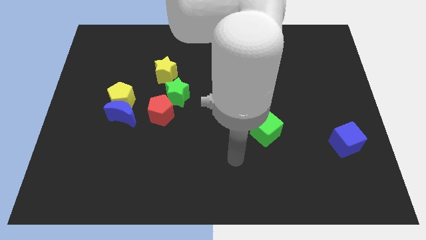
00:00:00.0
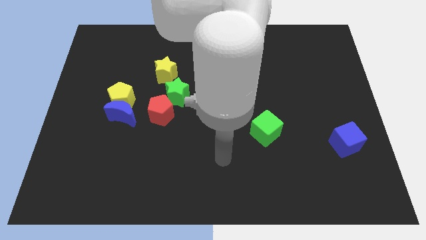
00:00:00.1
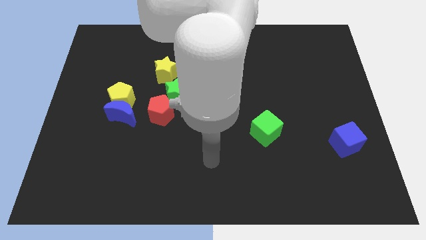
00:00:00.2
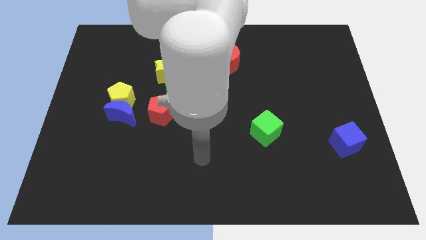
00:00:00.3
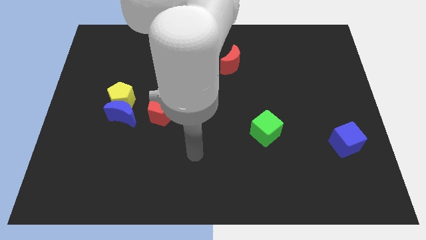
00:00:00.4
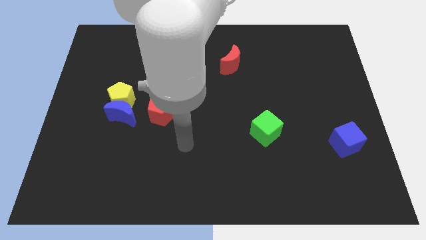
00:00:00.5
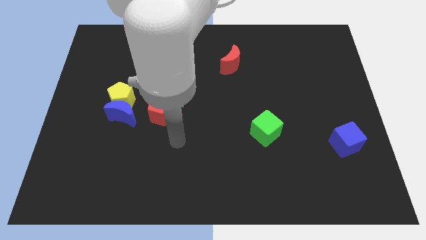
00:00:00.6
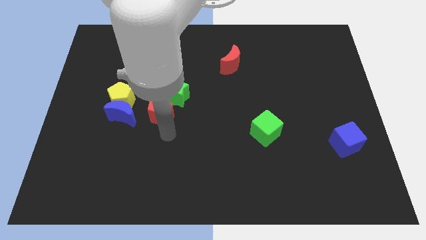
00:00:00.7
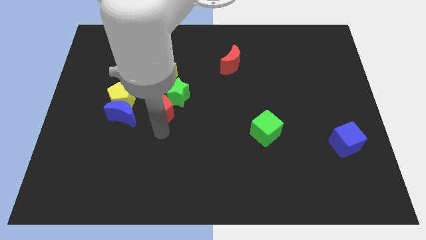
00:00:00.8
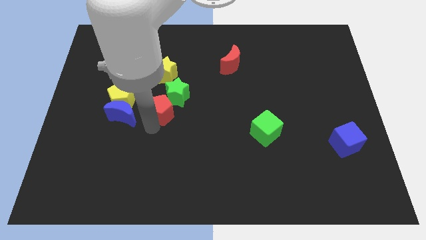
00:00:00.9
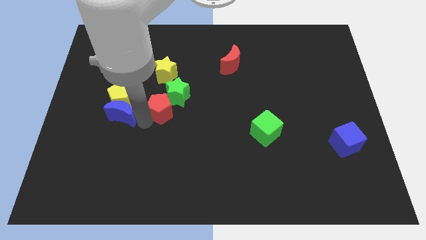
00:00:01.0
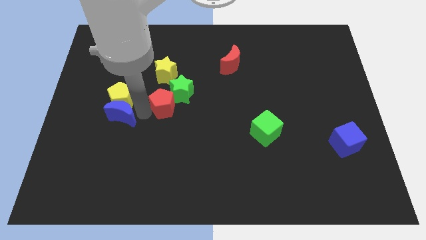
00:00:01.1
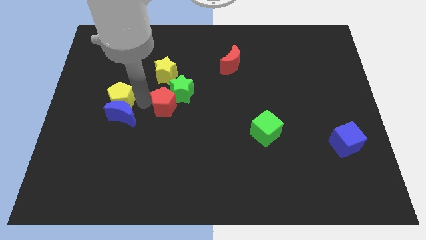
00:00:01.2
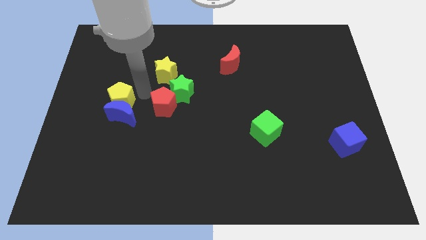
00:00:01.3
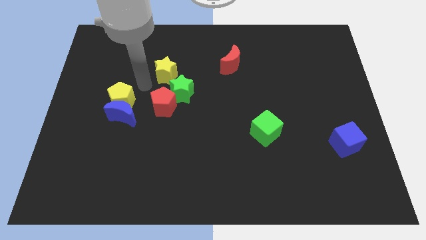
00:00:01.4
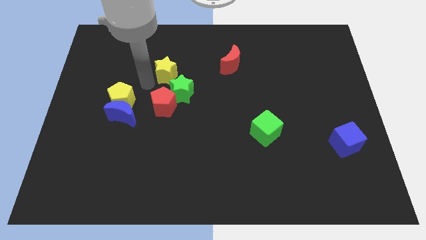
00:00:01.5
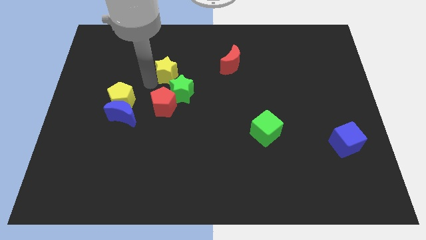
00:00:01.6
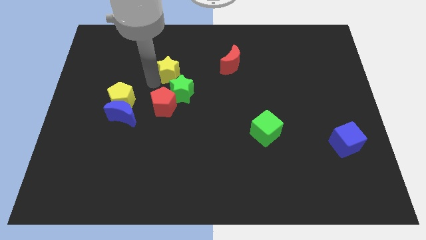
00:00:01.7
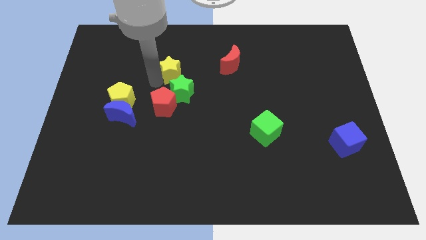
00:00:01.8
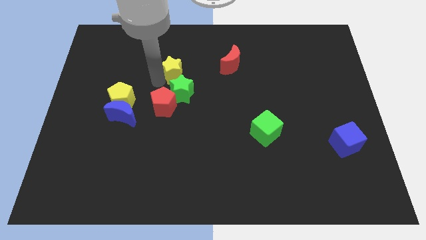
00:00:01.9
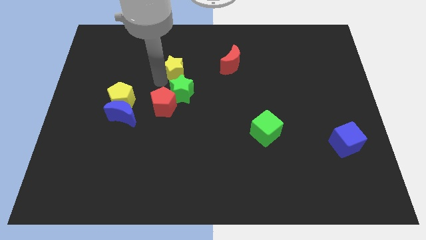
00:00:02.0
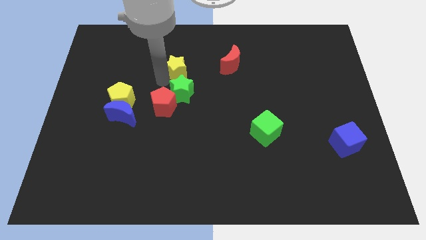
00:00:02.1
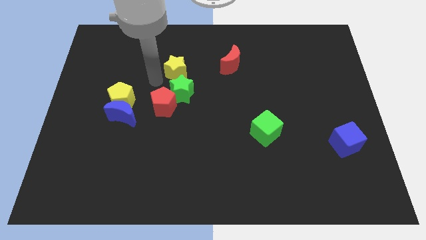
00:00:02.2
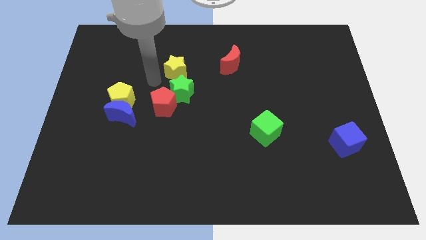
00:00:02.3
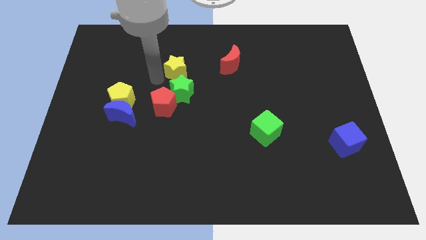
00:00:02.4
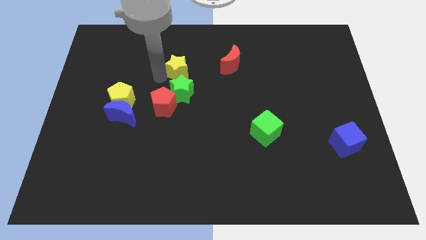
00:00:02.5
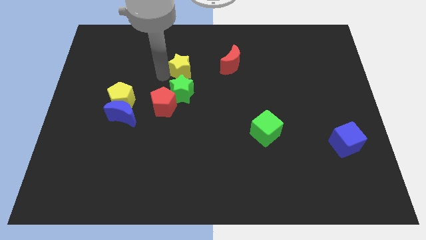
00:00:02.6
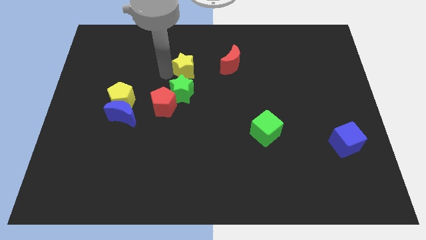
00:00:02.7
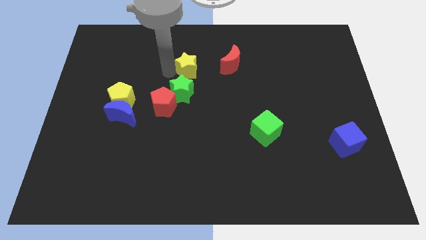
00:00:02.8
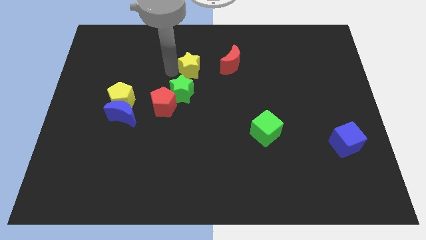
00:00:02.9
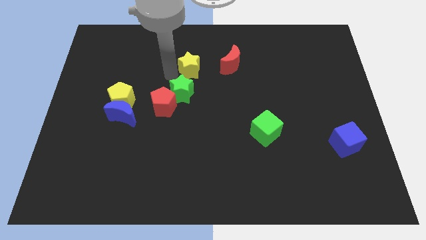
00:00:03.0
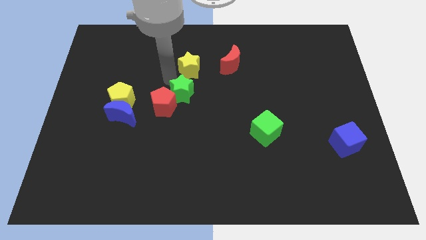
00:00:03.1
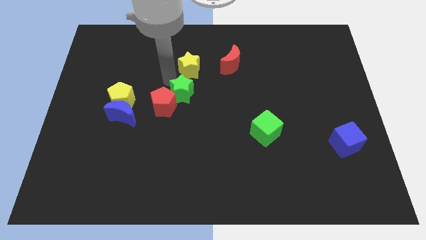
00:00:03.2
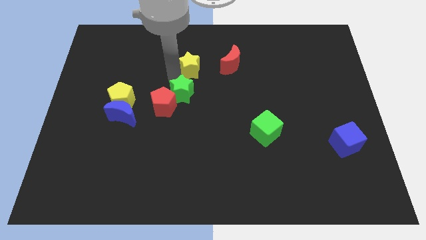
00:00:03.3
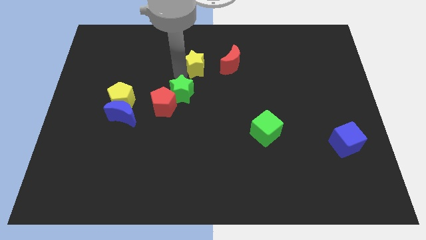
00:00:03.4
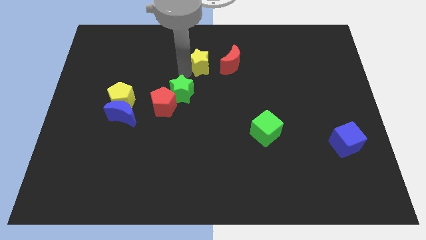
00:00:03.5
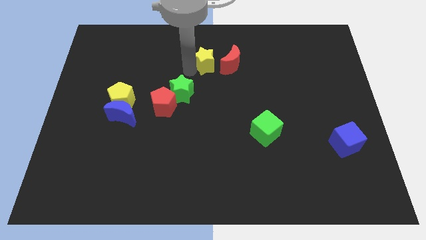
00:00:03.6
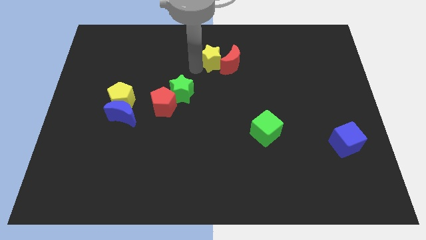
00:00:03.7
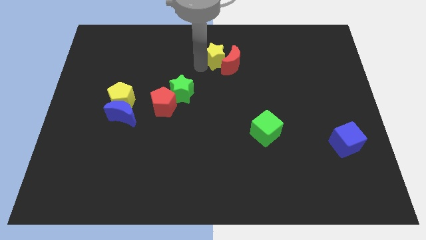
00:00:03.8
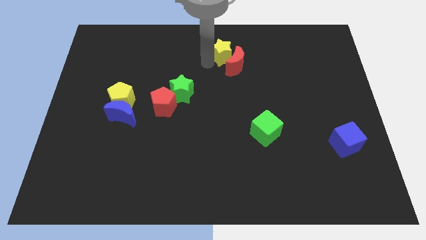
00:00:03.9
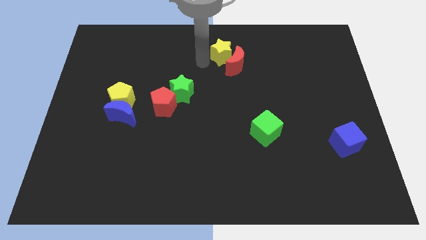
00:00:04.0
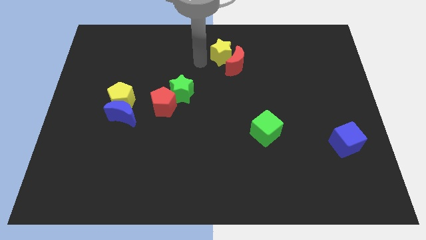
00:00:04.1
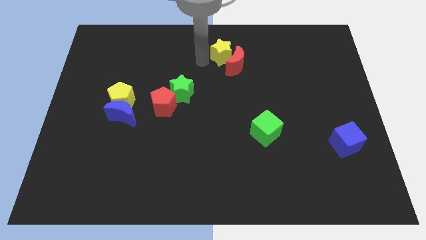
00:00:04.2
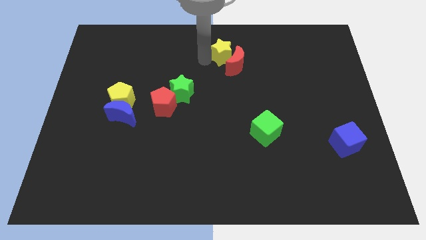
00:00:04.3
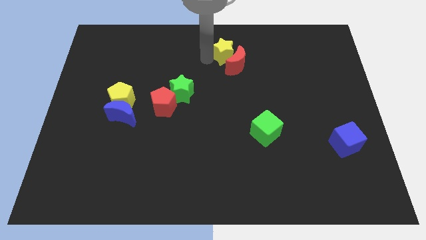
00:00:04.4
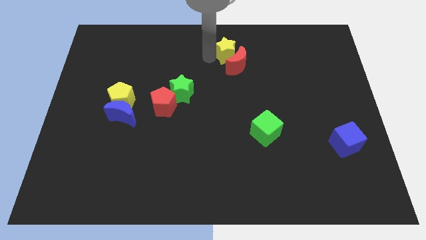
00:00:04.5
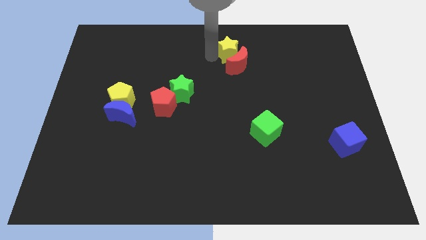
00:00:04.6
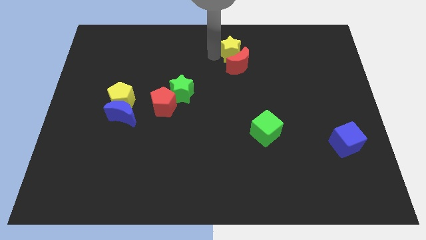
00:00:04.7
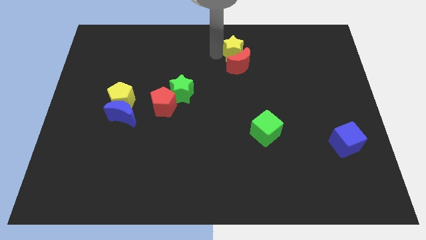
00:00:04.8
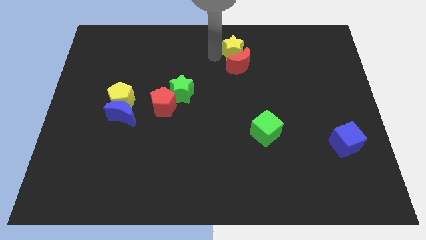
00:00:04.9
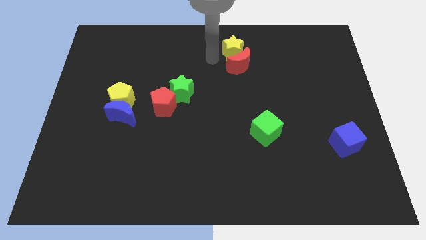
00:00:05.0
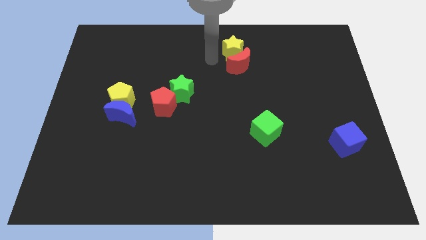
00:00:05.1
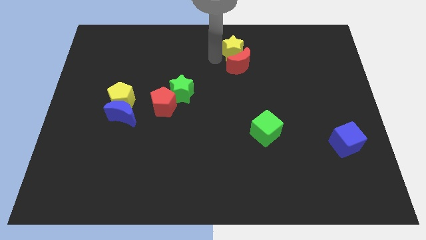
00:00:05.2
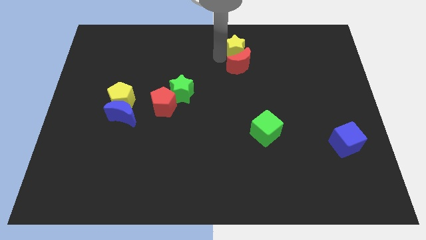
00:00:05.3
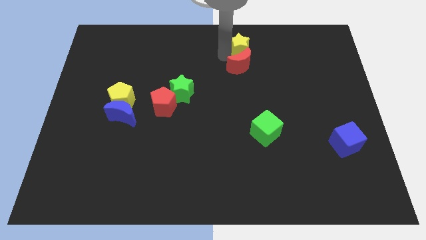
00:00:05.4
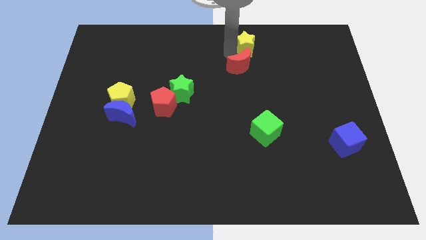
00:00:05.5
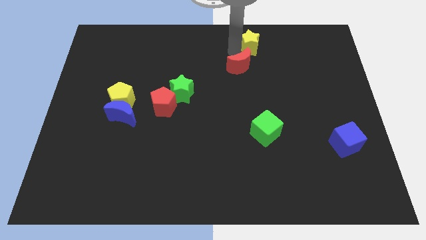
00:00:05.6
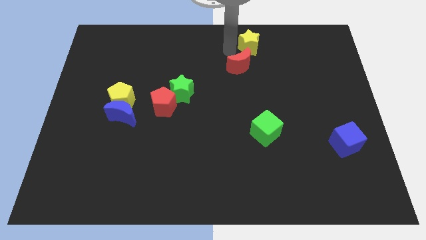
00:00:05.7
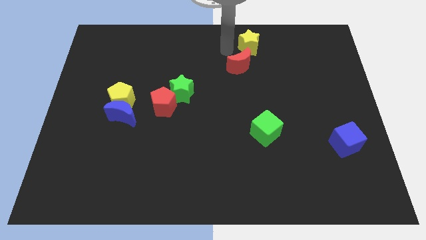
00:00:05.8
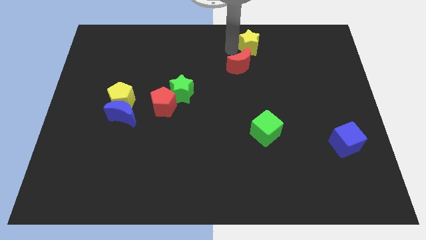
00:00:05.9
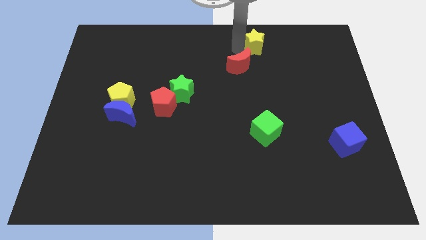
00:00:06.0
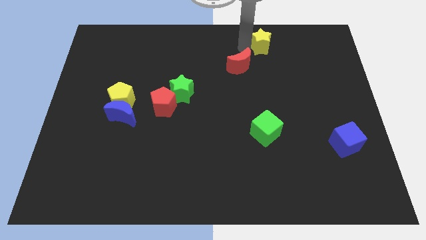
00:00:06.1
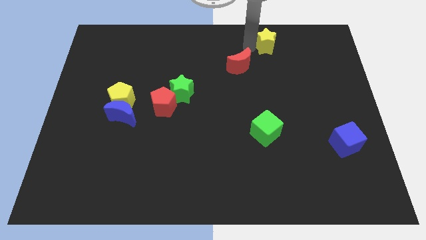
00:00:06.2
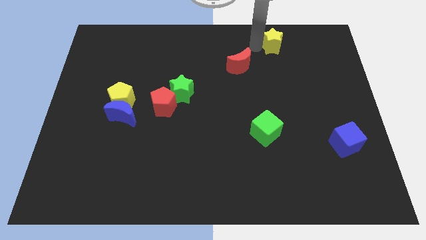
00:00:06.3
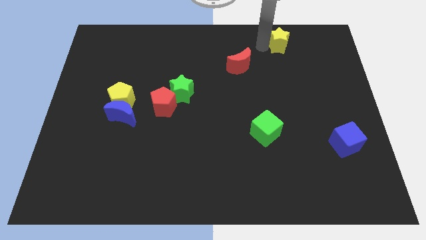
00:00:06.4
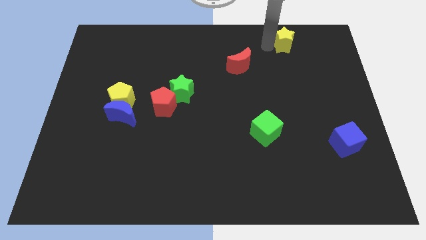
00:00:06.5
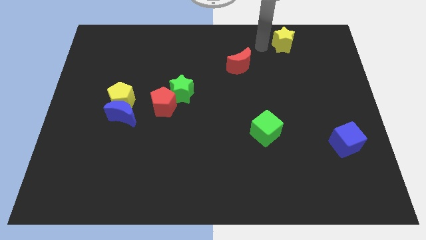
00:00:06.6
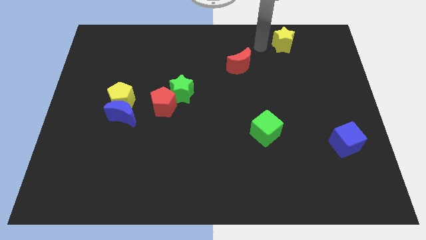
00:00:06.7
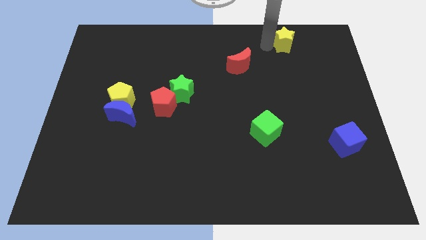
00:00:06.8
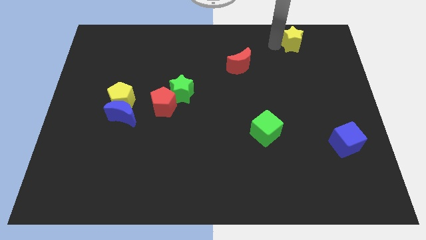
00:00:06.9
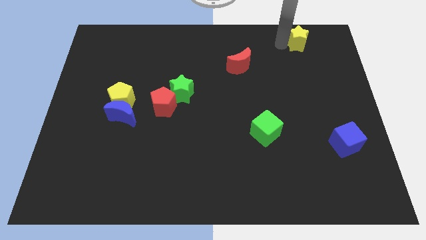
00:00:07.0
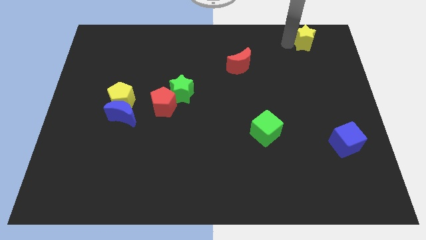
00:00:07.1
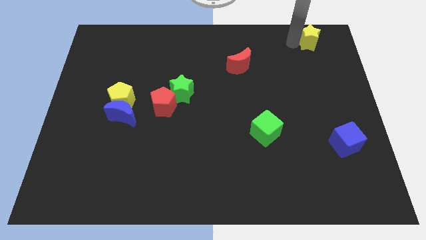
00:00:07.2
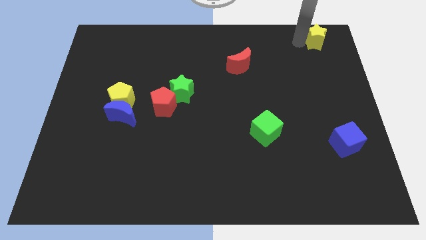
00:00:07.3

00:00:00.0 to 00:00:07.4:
move the yellow star to the top right of the board
